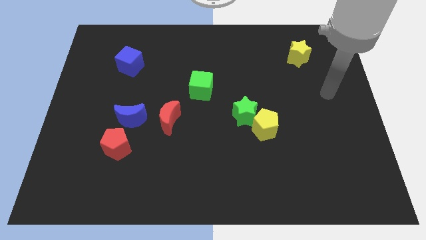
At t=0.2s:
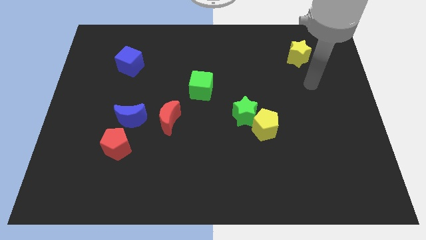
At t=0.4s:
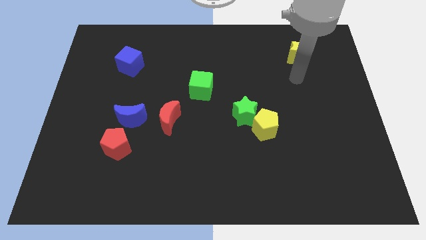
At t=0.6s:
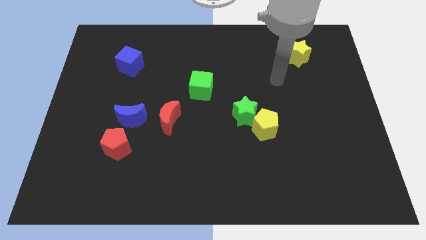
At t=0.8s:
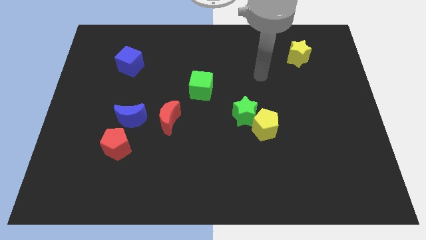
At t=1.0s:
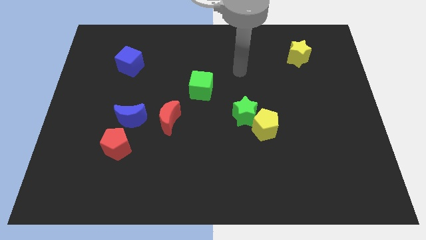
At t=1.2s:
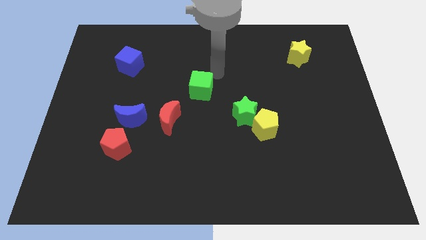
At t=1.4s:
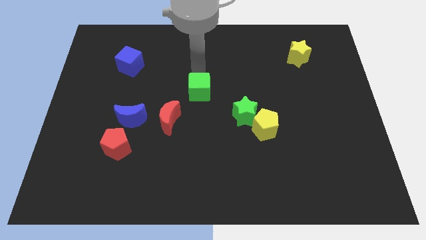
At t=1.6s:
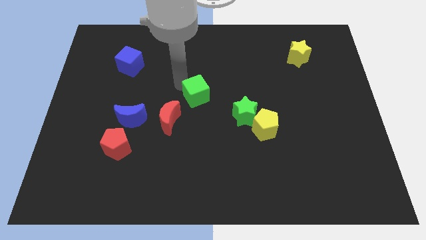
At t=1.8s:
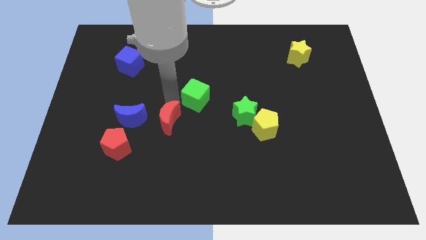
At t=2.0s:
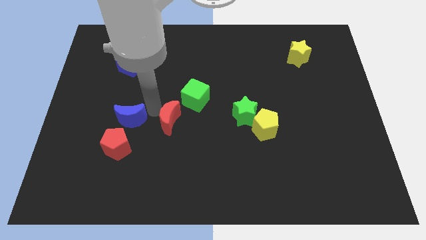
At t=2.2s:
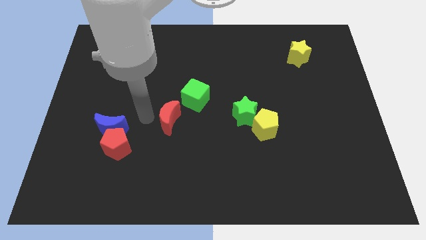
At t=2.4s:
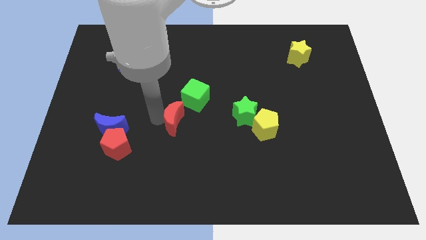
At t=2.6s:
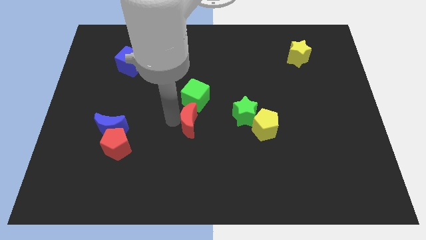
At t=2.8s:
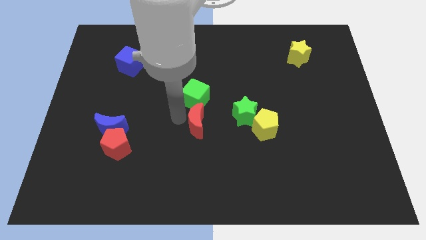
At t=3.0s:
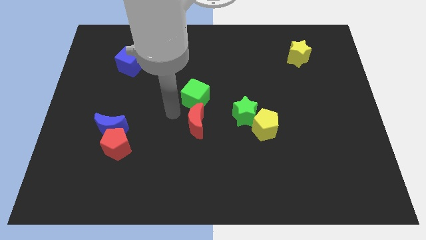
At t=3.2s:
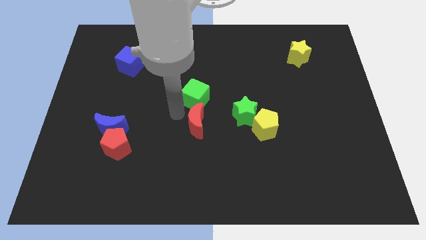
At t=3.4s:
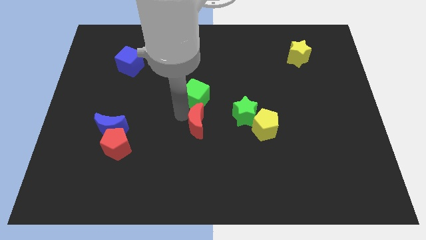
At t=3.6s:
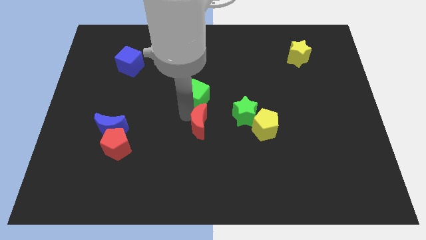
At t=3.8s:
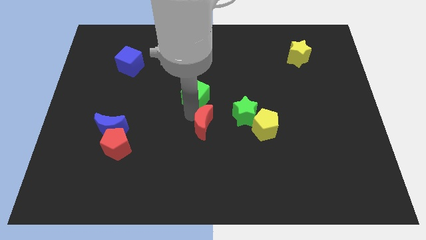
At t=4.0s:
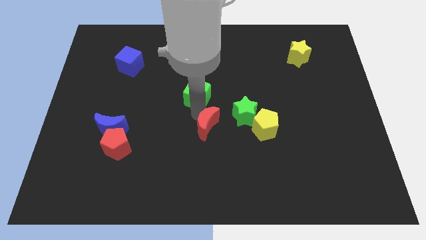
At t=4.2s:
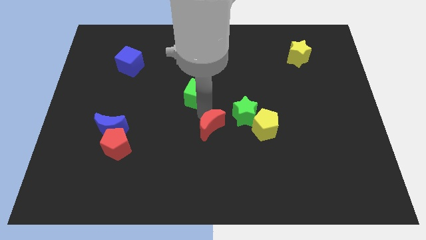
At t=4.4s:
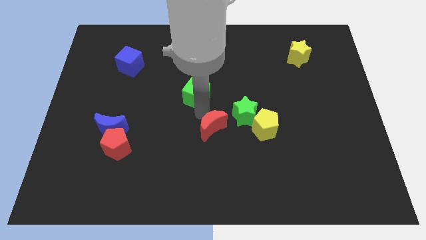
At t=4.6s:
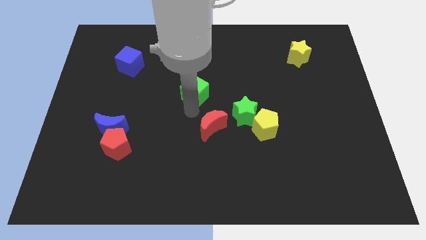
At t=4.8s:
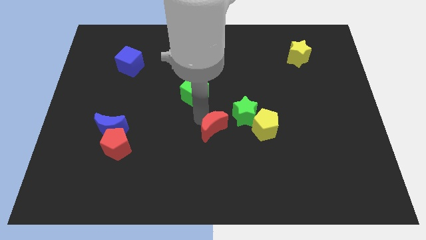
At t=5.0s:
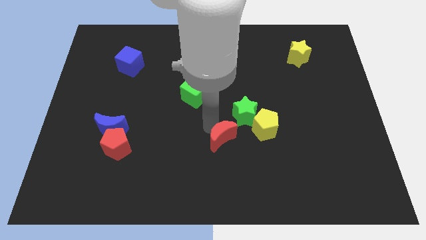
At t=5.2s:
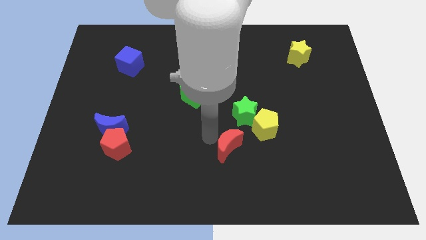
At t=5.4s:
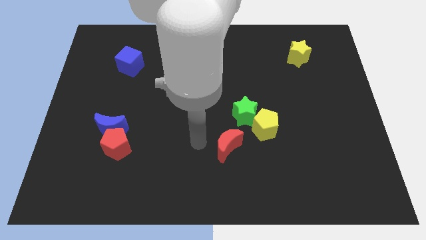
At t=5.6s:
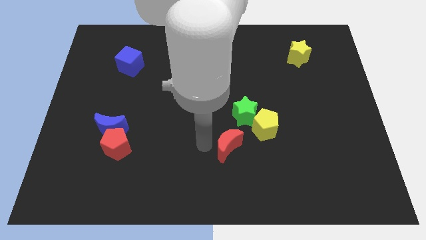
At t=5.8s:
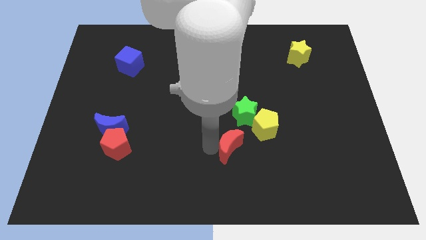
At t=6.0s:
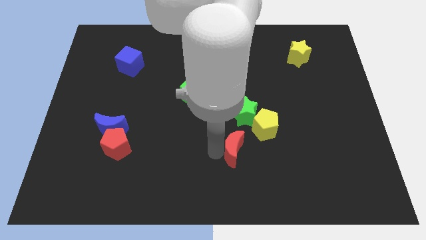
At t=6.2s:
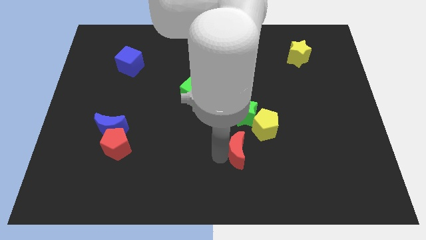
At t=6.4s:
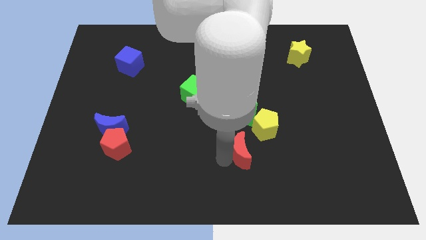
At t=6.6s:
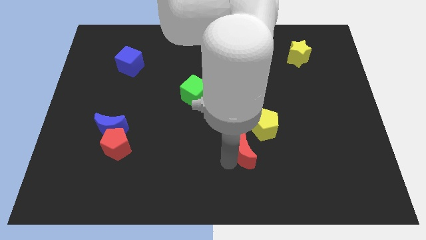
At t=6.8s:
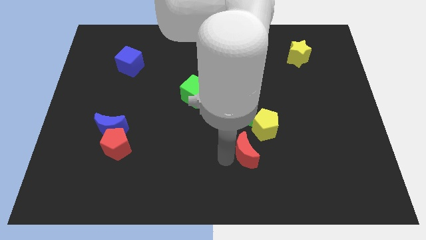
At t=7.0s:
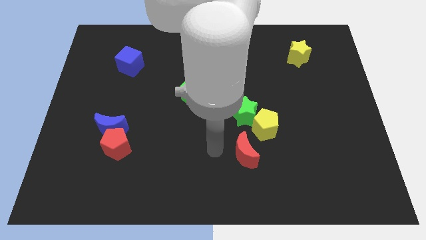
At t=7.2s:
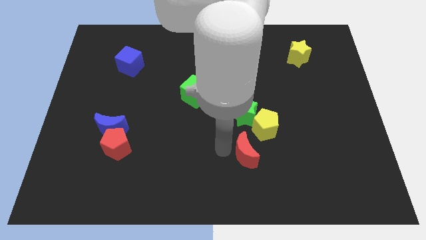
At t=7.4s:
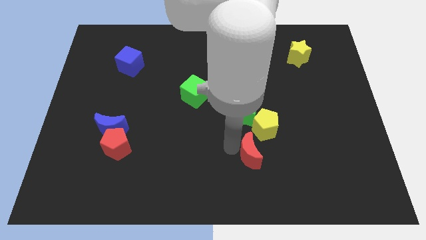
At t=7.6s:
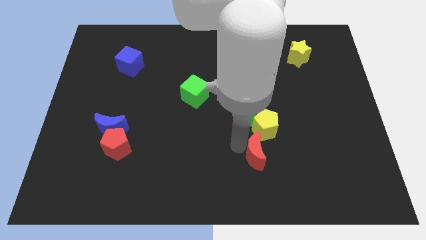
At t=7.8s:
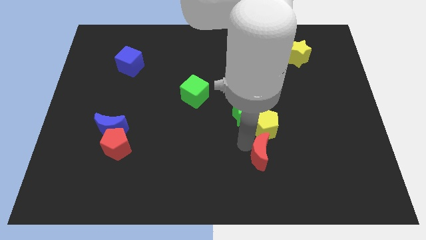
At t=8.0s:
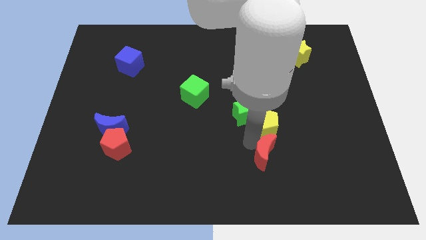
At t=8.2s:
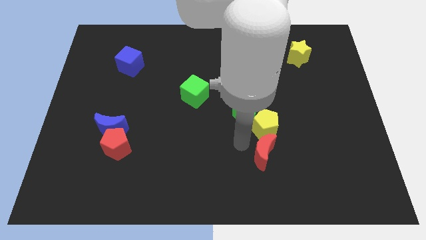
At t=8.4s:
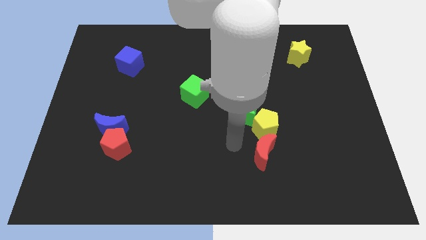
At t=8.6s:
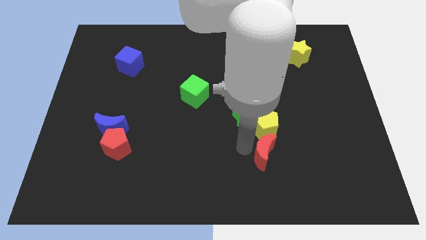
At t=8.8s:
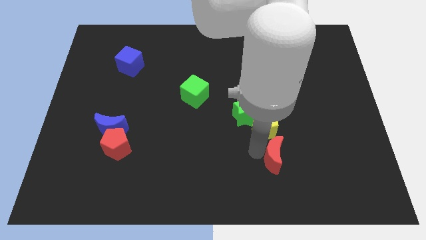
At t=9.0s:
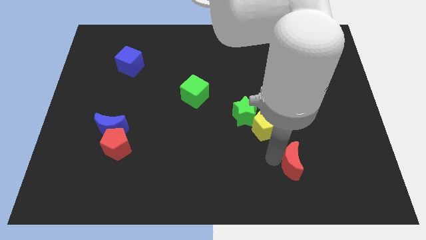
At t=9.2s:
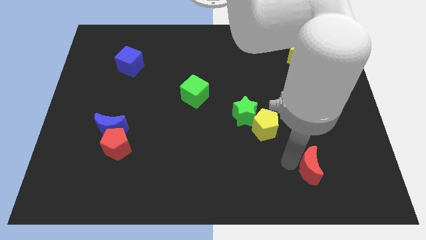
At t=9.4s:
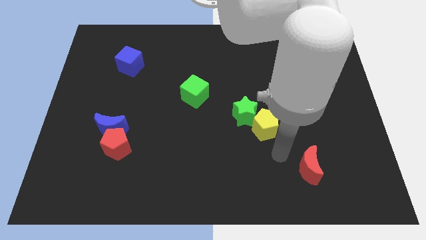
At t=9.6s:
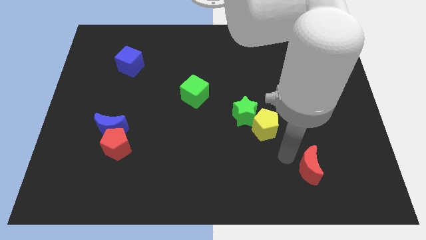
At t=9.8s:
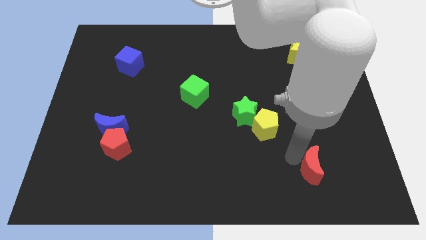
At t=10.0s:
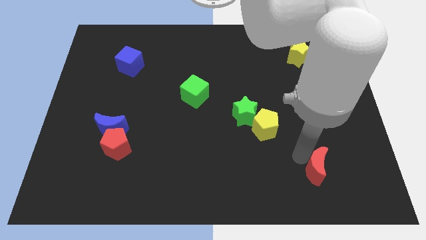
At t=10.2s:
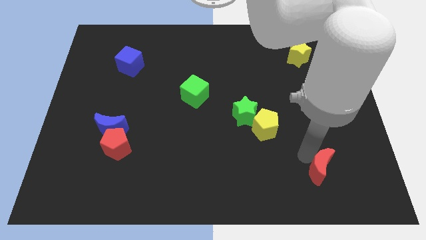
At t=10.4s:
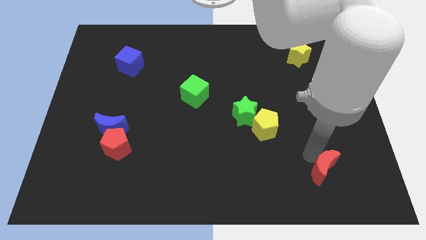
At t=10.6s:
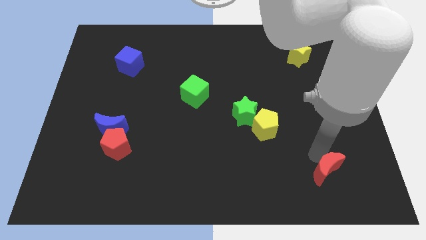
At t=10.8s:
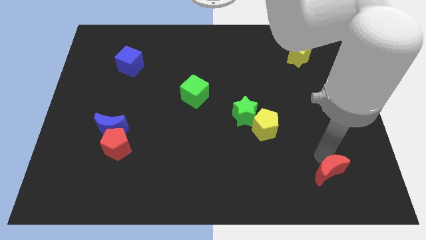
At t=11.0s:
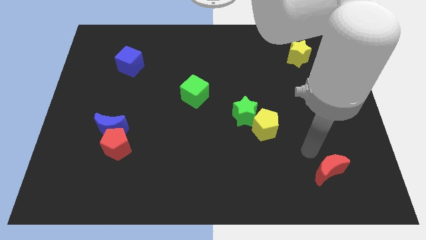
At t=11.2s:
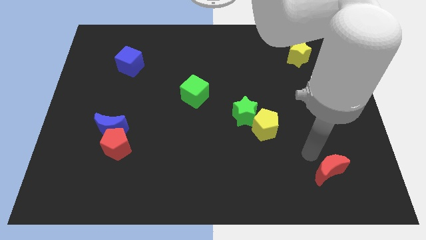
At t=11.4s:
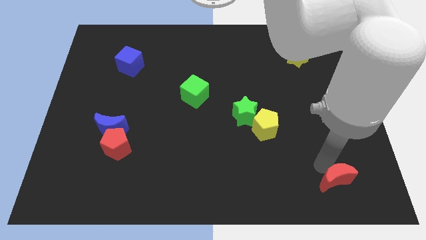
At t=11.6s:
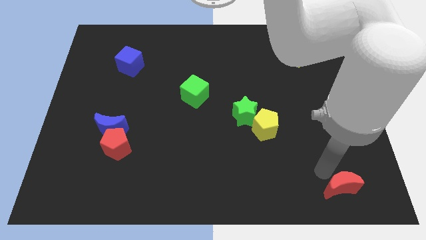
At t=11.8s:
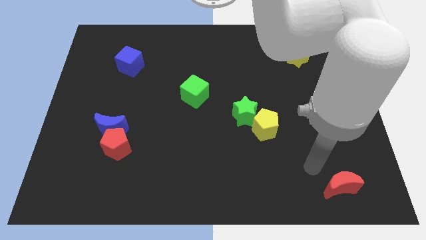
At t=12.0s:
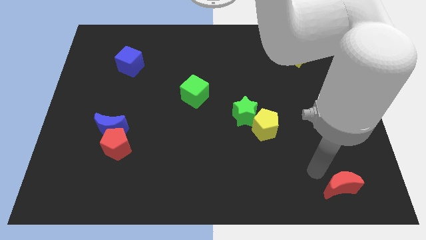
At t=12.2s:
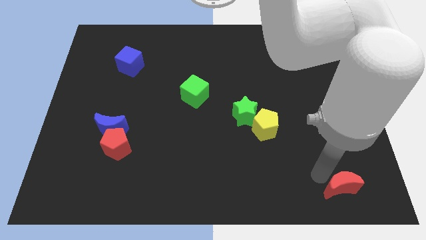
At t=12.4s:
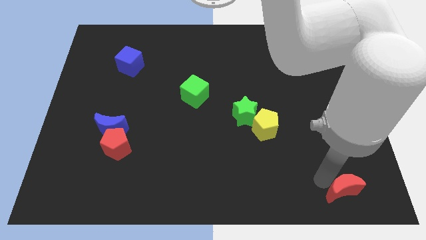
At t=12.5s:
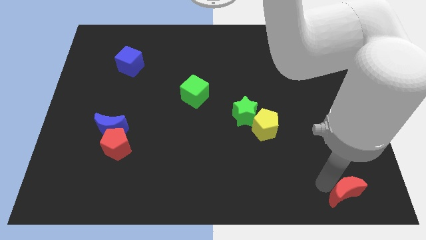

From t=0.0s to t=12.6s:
slide the red moon to the bottom right

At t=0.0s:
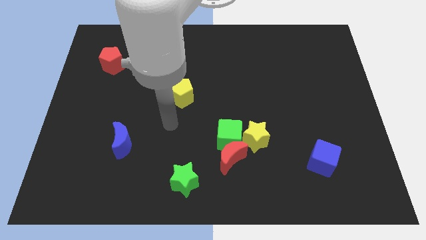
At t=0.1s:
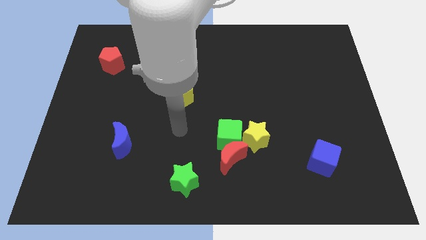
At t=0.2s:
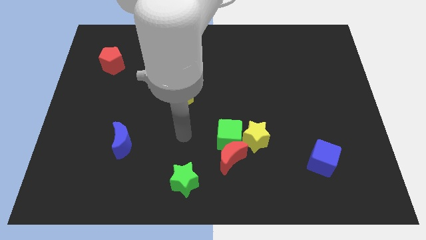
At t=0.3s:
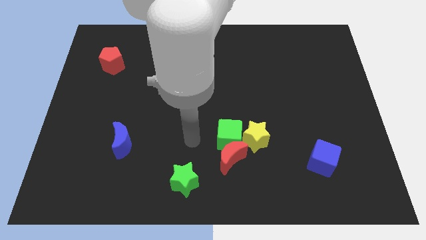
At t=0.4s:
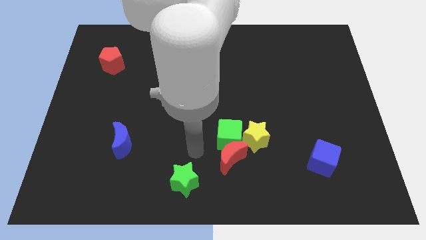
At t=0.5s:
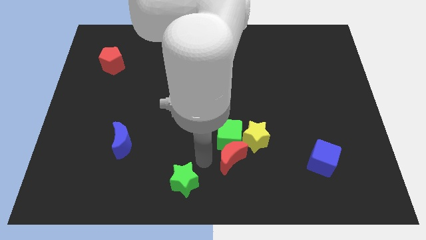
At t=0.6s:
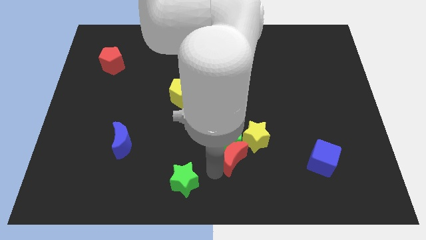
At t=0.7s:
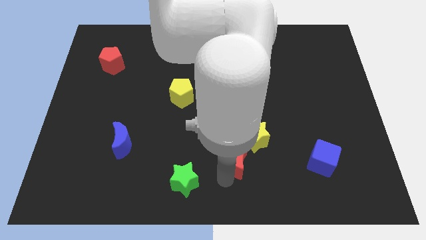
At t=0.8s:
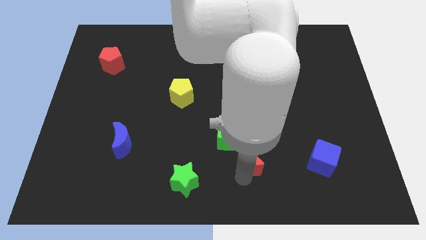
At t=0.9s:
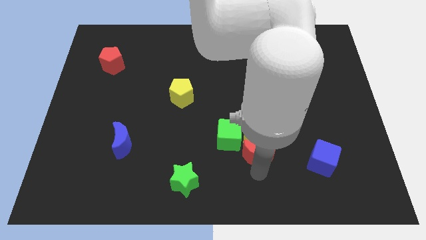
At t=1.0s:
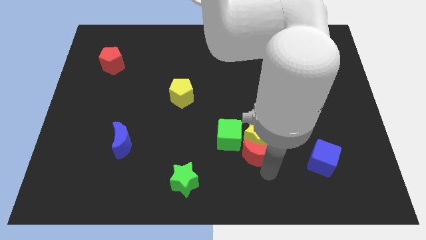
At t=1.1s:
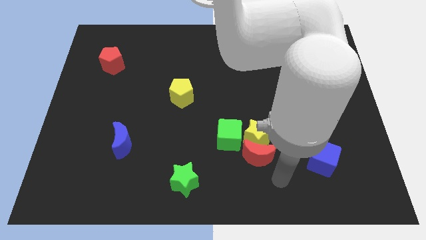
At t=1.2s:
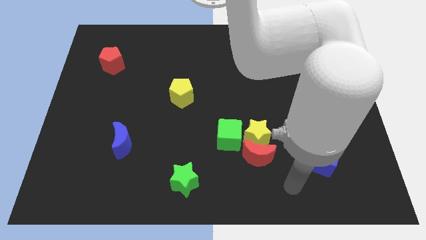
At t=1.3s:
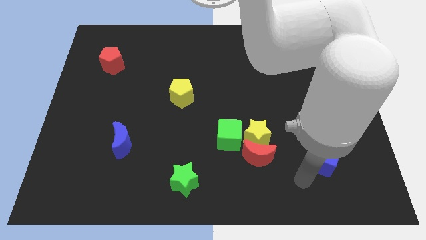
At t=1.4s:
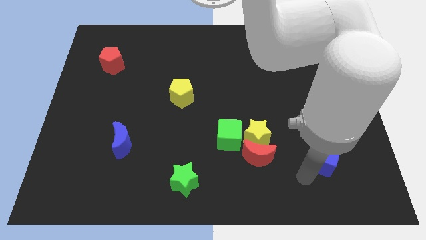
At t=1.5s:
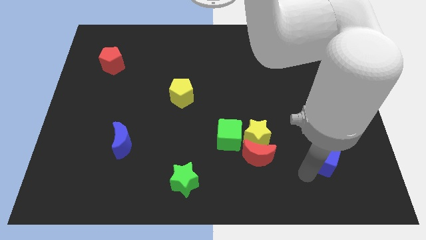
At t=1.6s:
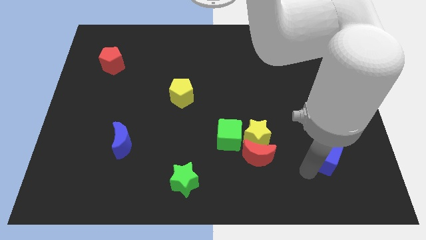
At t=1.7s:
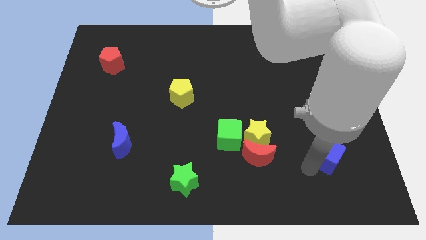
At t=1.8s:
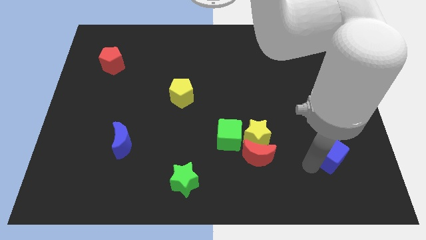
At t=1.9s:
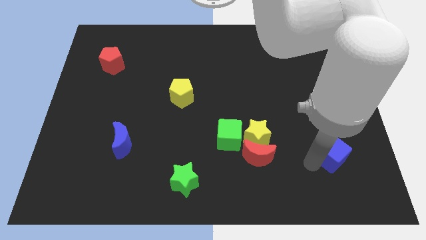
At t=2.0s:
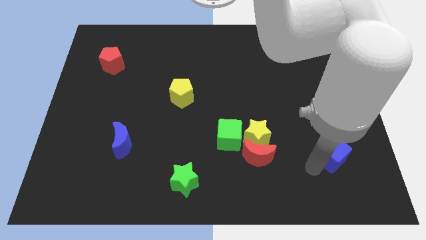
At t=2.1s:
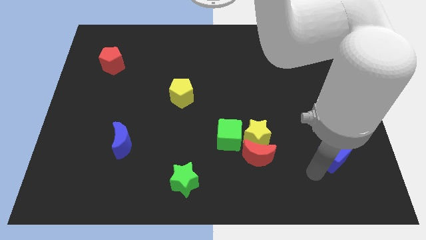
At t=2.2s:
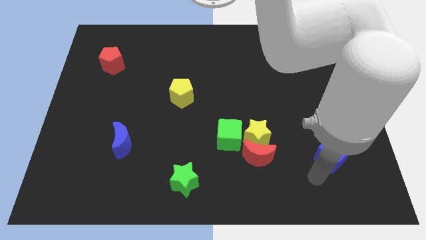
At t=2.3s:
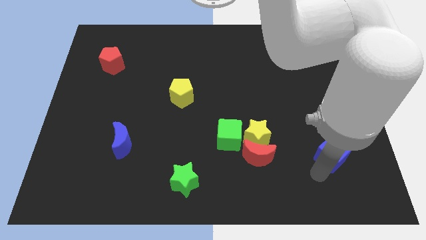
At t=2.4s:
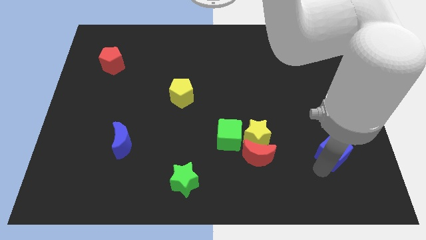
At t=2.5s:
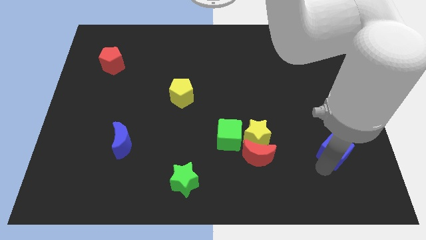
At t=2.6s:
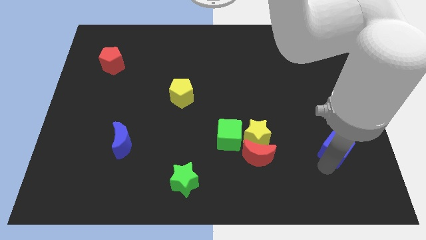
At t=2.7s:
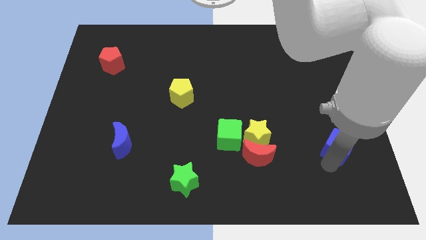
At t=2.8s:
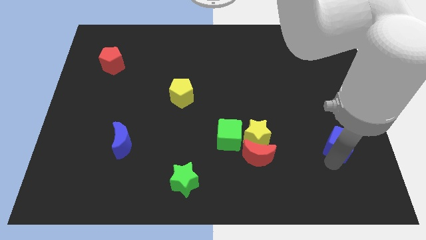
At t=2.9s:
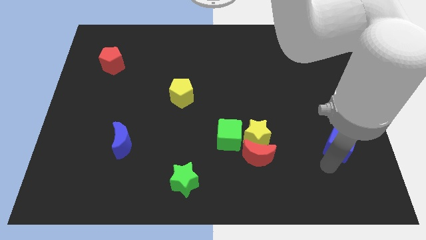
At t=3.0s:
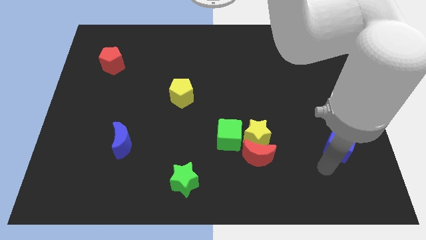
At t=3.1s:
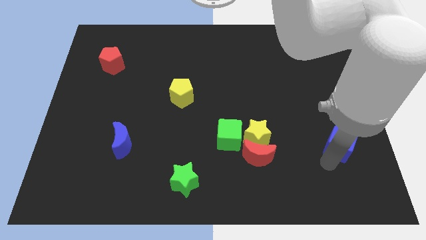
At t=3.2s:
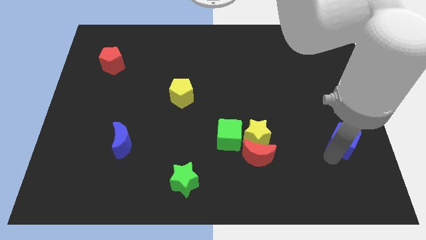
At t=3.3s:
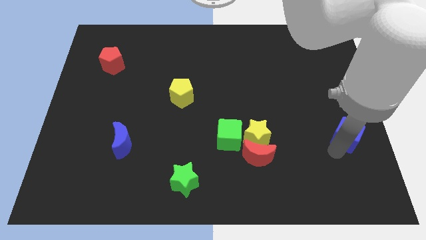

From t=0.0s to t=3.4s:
put the blue cube to the center right
